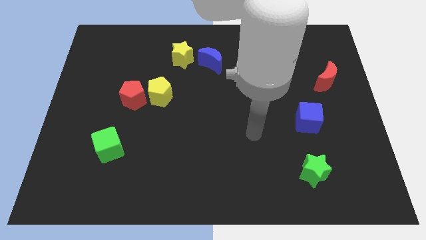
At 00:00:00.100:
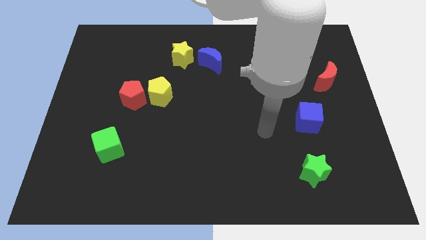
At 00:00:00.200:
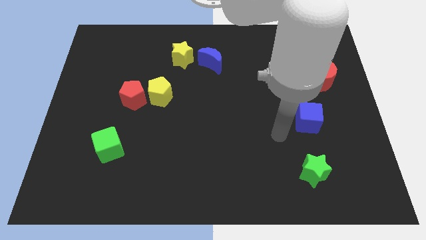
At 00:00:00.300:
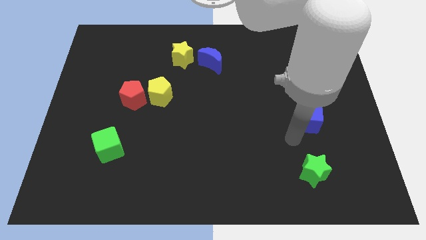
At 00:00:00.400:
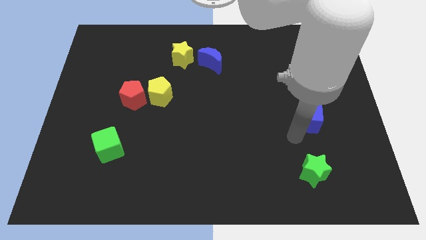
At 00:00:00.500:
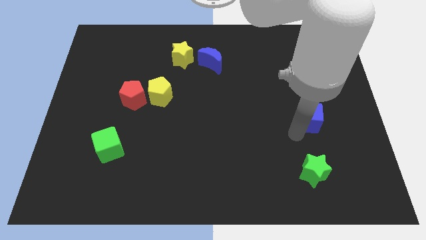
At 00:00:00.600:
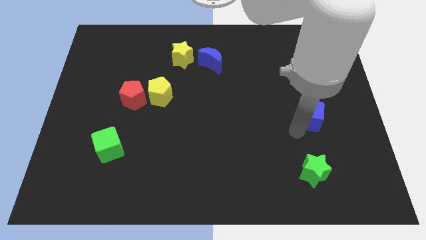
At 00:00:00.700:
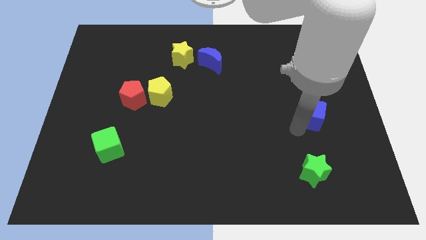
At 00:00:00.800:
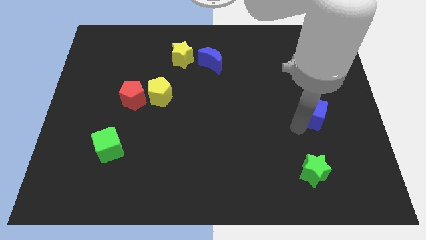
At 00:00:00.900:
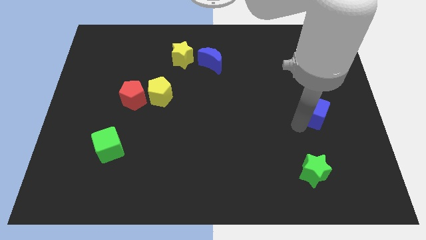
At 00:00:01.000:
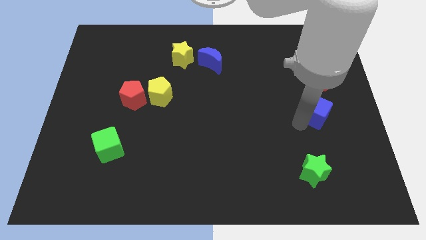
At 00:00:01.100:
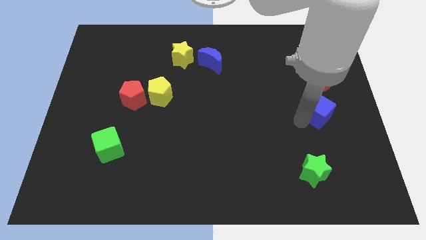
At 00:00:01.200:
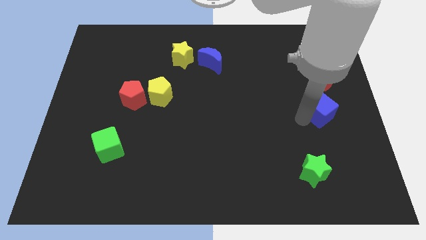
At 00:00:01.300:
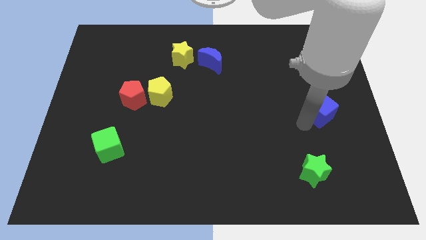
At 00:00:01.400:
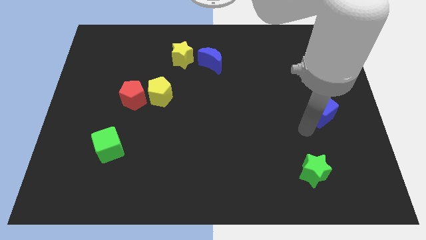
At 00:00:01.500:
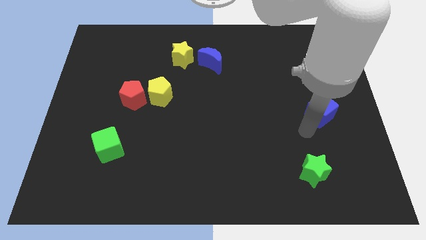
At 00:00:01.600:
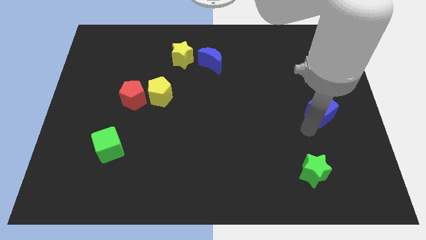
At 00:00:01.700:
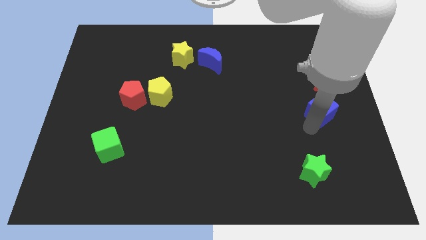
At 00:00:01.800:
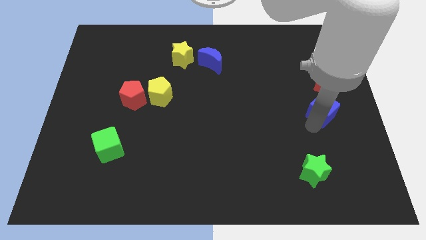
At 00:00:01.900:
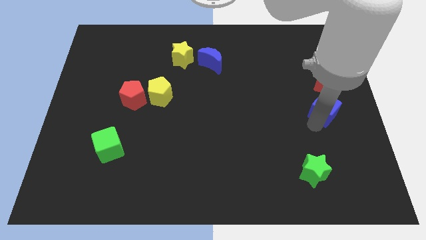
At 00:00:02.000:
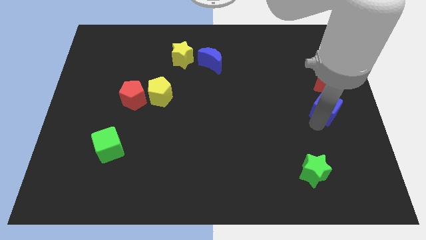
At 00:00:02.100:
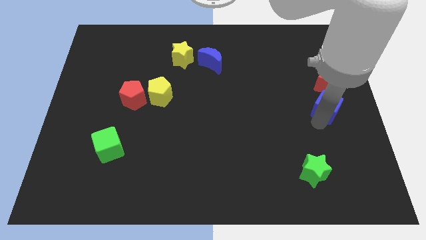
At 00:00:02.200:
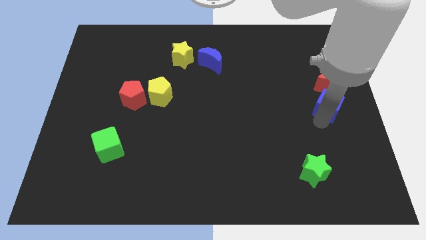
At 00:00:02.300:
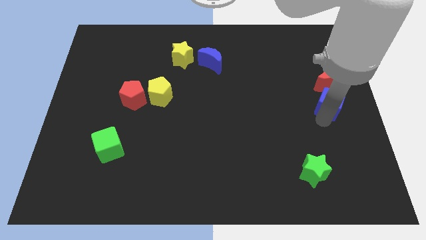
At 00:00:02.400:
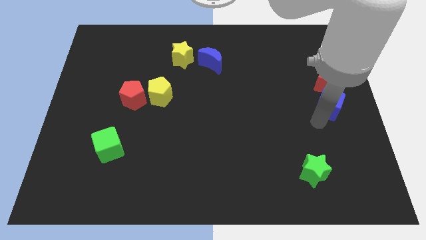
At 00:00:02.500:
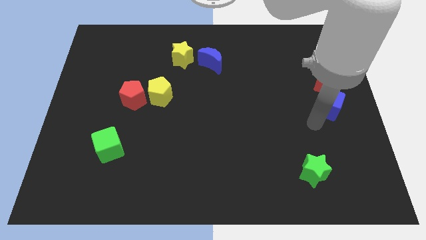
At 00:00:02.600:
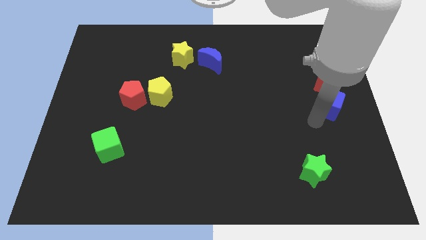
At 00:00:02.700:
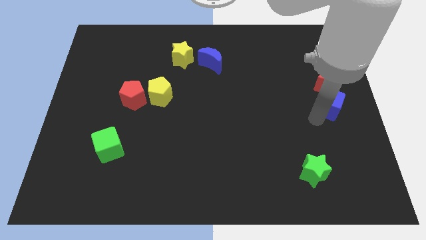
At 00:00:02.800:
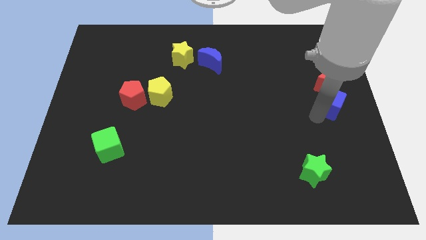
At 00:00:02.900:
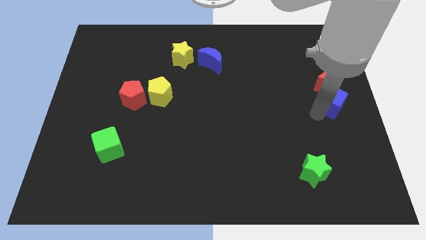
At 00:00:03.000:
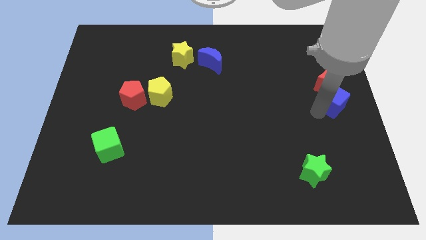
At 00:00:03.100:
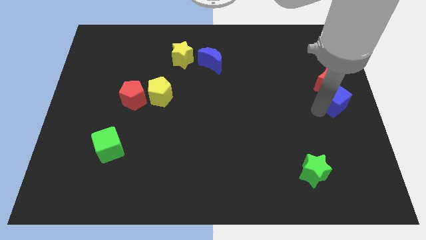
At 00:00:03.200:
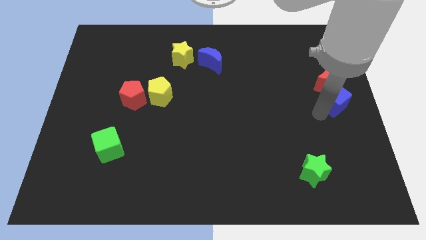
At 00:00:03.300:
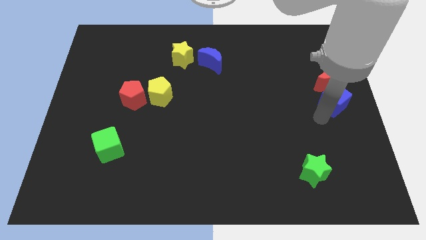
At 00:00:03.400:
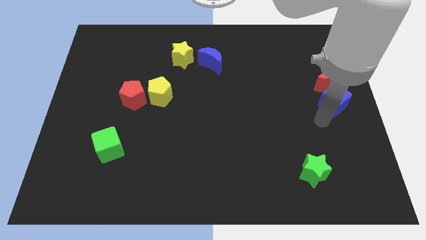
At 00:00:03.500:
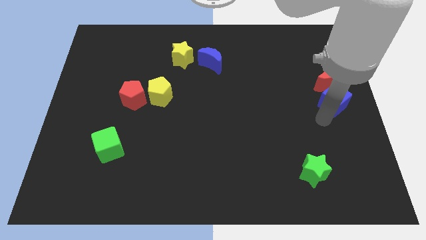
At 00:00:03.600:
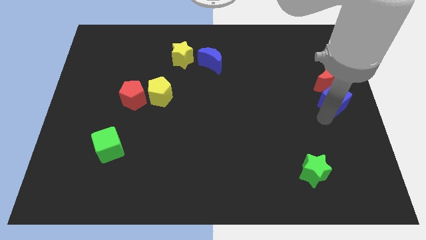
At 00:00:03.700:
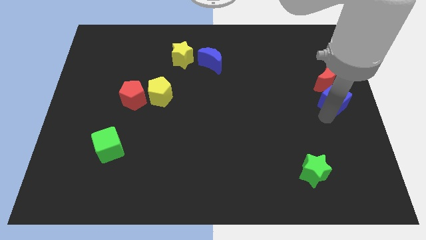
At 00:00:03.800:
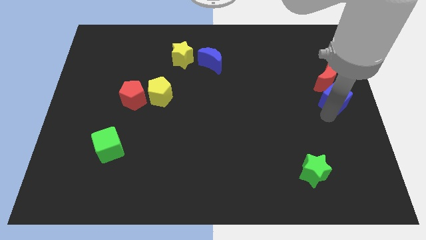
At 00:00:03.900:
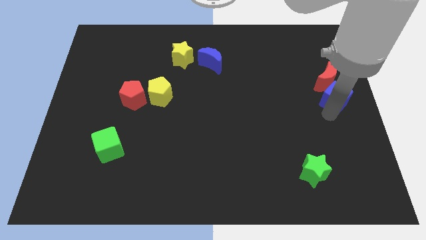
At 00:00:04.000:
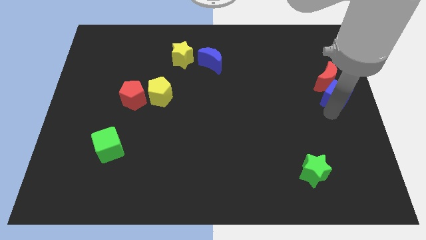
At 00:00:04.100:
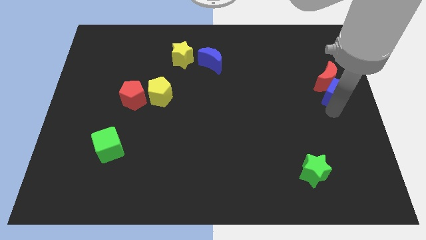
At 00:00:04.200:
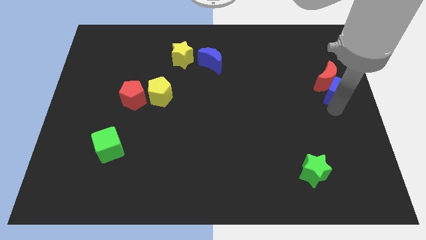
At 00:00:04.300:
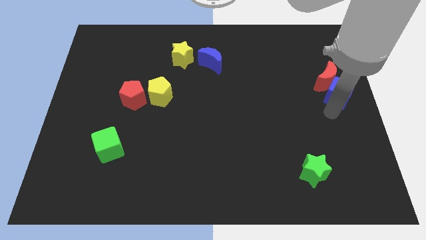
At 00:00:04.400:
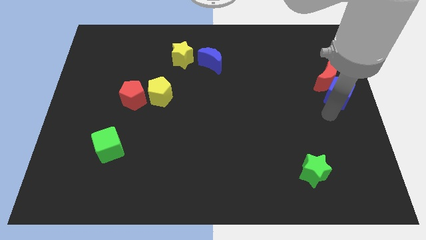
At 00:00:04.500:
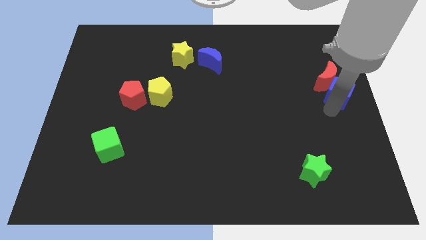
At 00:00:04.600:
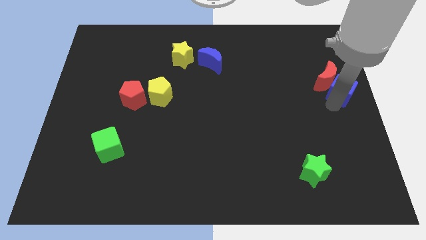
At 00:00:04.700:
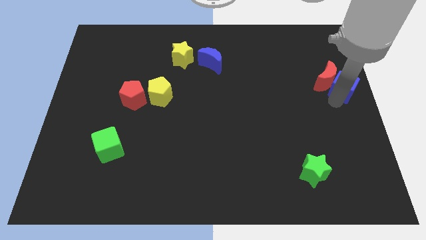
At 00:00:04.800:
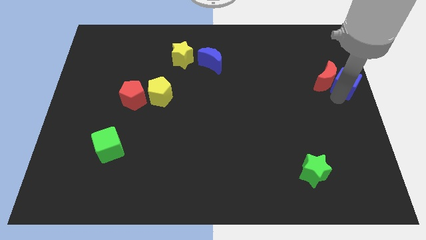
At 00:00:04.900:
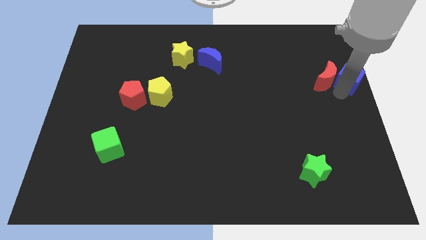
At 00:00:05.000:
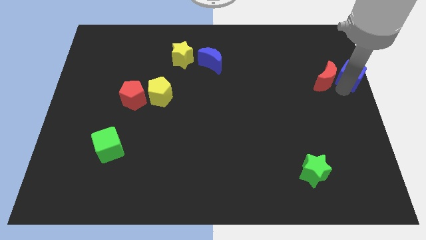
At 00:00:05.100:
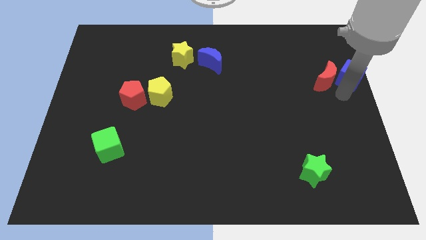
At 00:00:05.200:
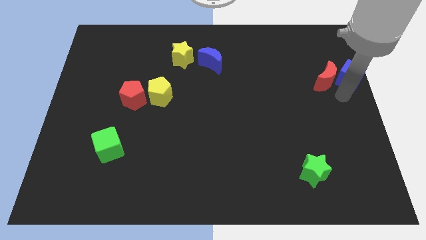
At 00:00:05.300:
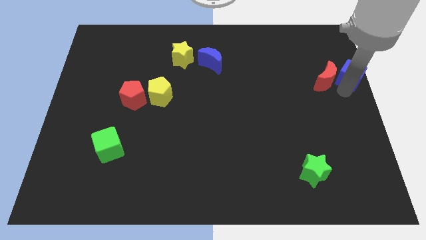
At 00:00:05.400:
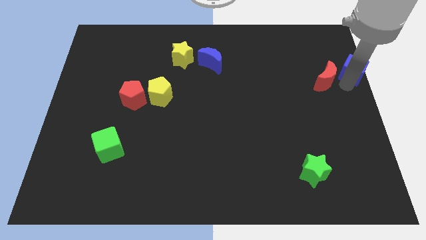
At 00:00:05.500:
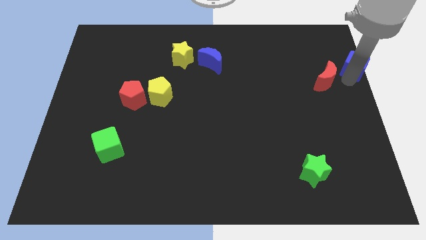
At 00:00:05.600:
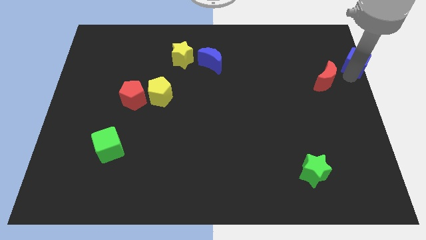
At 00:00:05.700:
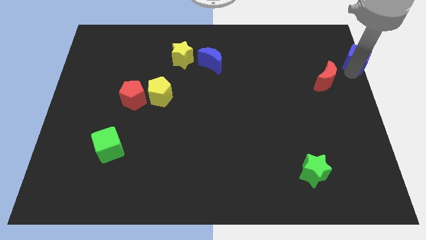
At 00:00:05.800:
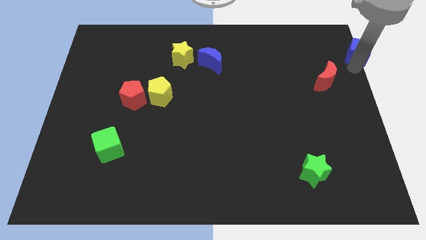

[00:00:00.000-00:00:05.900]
slide the blue cube to the top right of the board

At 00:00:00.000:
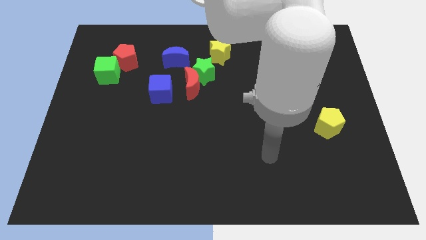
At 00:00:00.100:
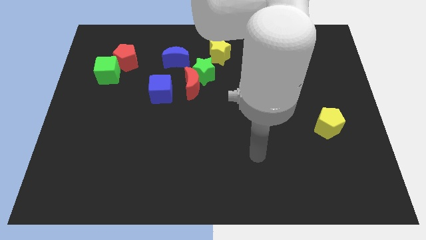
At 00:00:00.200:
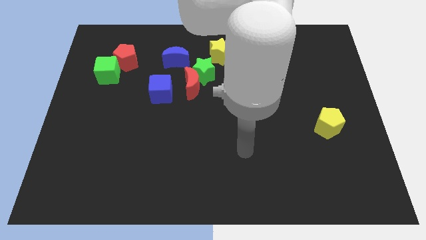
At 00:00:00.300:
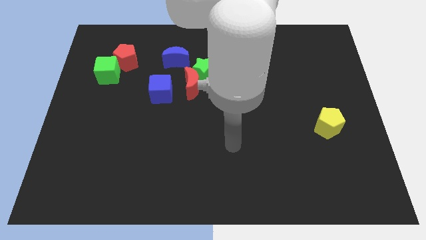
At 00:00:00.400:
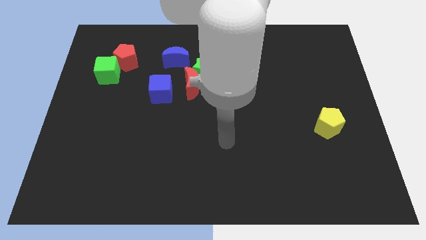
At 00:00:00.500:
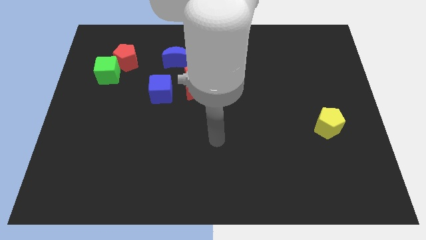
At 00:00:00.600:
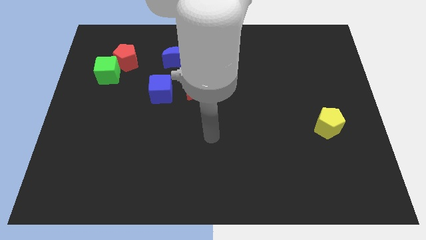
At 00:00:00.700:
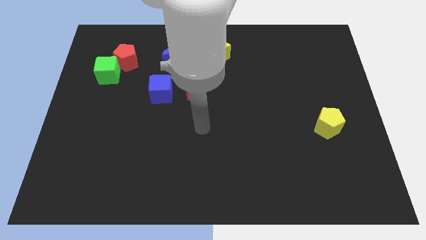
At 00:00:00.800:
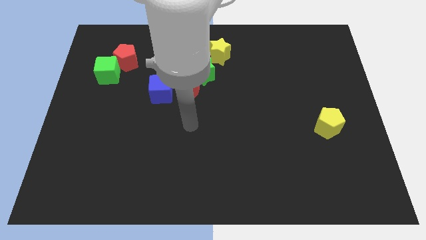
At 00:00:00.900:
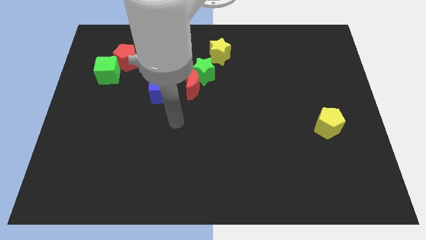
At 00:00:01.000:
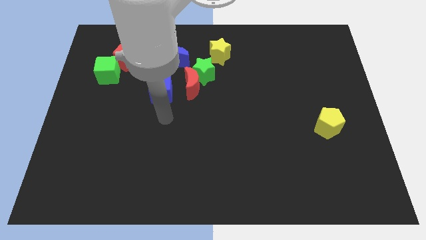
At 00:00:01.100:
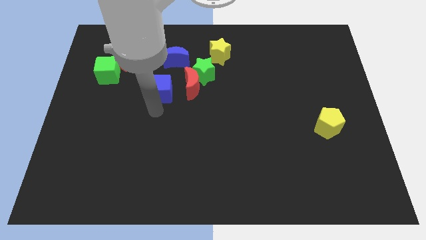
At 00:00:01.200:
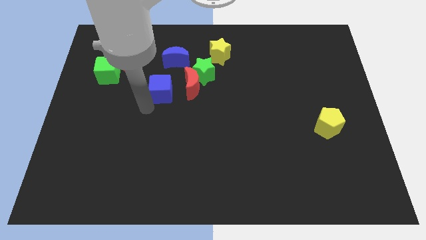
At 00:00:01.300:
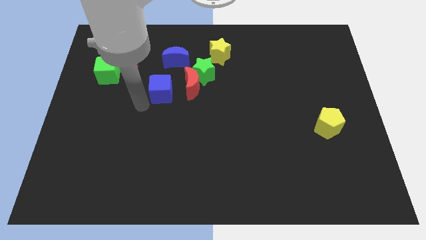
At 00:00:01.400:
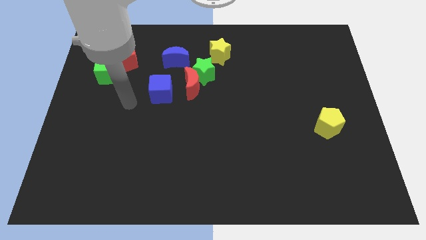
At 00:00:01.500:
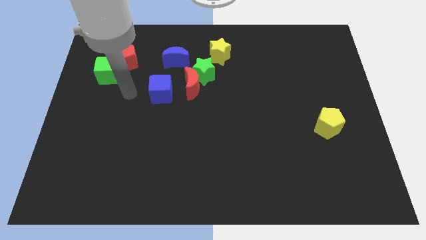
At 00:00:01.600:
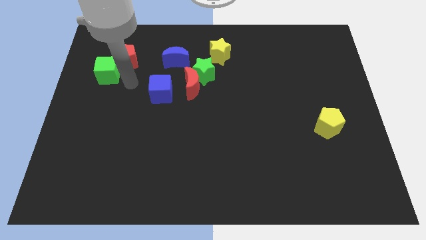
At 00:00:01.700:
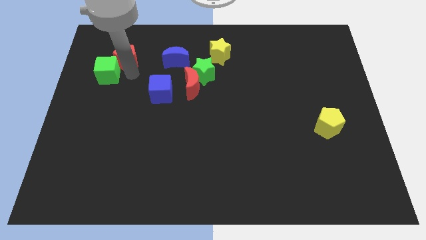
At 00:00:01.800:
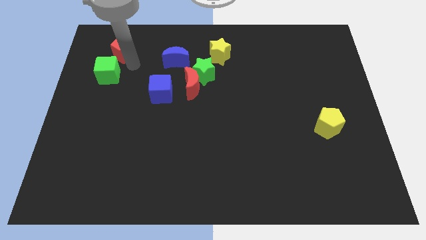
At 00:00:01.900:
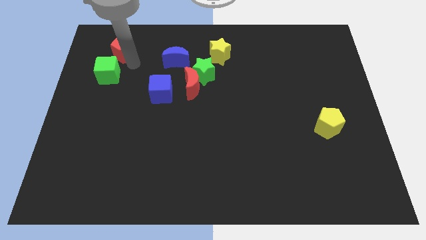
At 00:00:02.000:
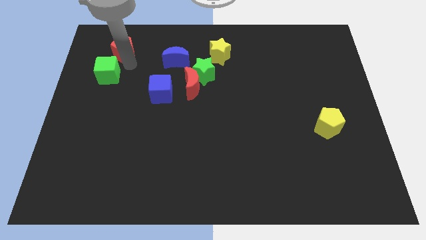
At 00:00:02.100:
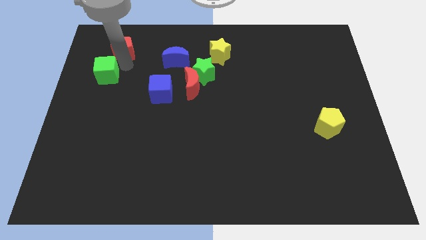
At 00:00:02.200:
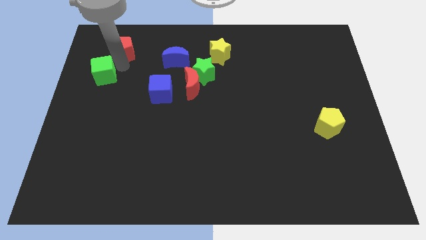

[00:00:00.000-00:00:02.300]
move the green cube to the left side of the board
